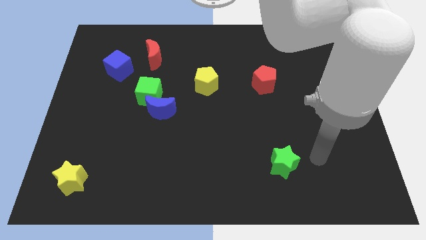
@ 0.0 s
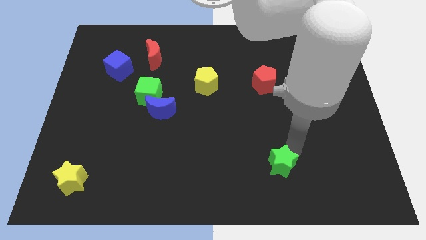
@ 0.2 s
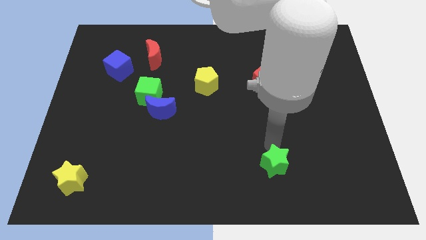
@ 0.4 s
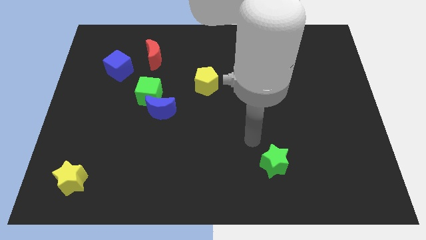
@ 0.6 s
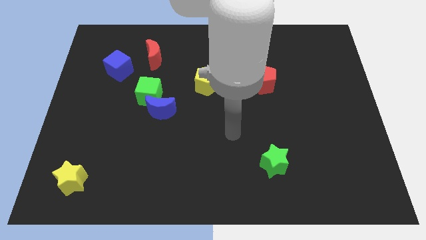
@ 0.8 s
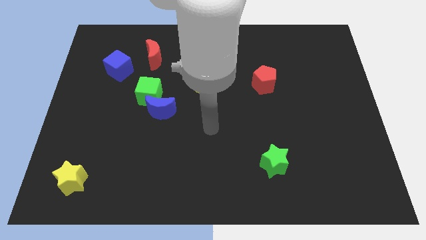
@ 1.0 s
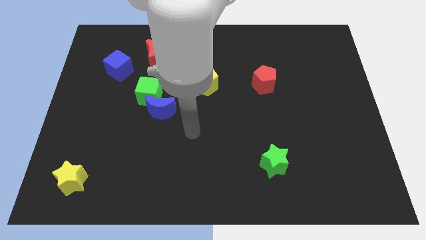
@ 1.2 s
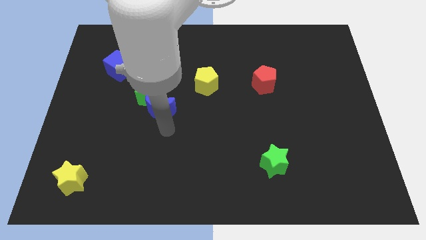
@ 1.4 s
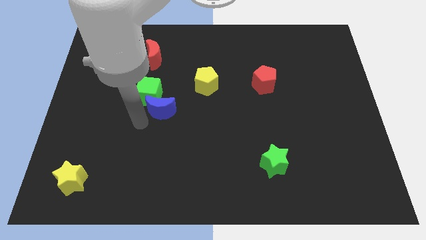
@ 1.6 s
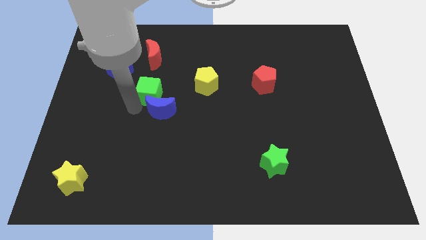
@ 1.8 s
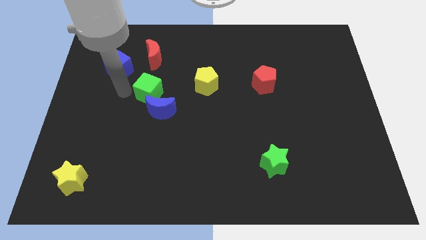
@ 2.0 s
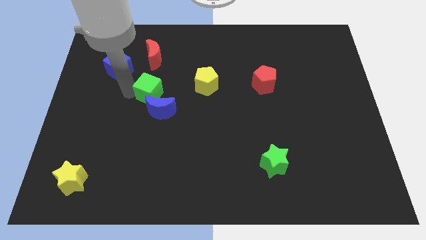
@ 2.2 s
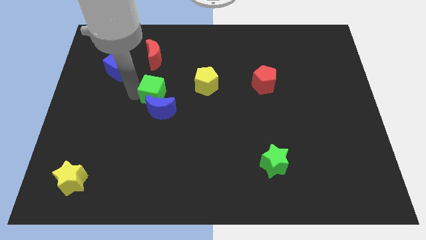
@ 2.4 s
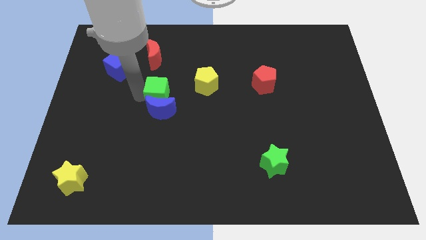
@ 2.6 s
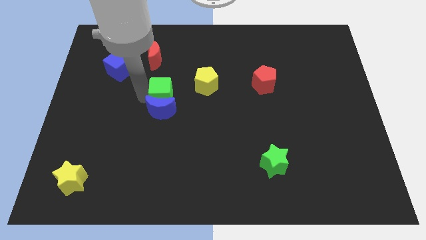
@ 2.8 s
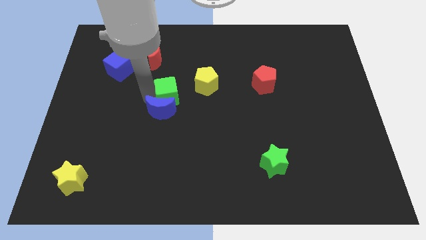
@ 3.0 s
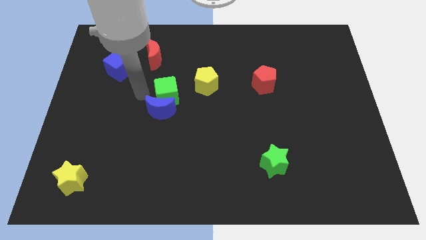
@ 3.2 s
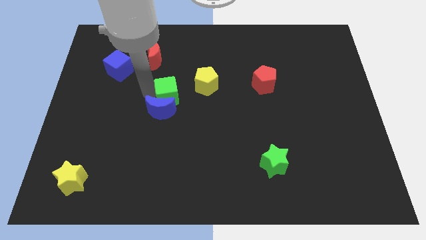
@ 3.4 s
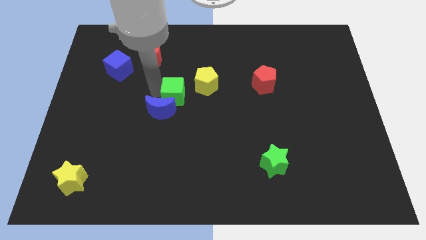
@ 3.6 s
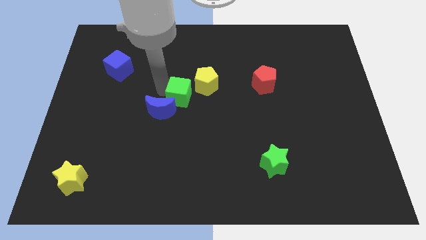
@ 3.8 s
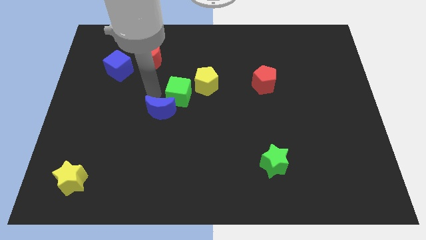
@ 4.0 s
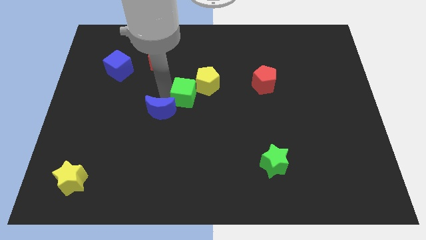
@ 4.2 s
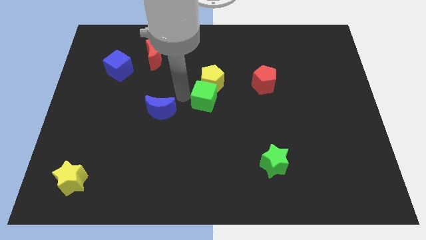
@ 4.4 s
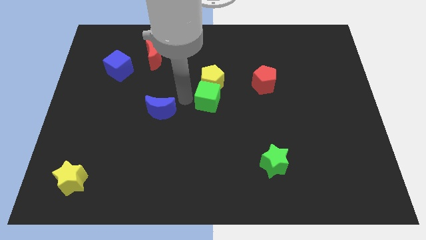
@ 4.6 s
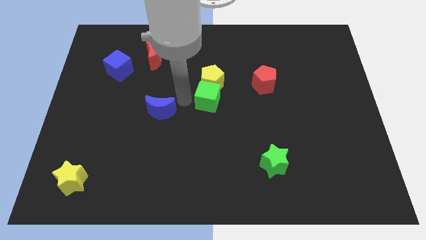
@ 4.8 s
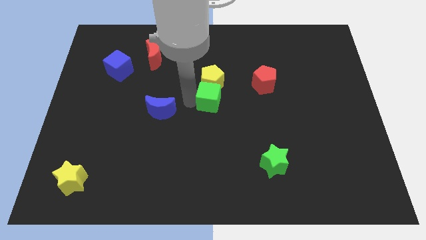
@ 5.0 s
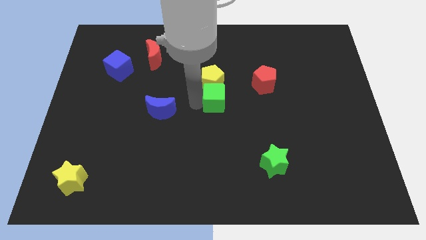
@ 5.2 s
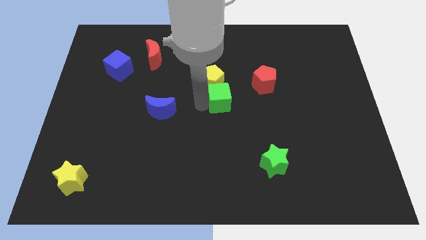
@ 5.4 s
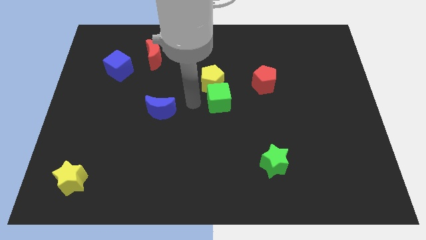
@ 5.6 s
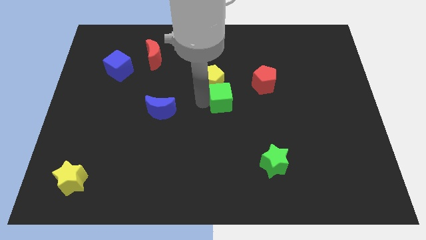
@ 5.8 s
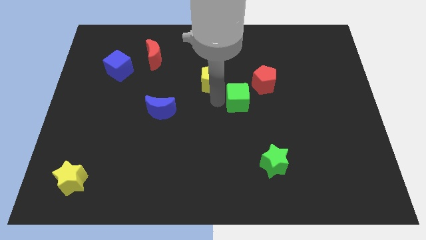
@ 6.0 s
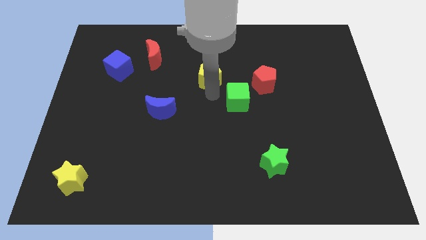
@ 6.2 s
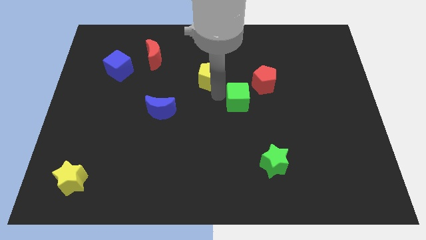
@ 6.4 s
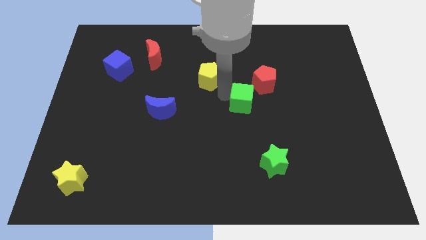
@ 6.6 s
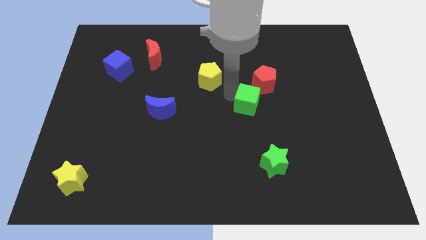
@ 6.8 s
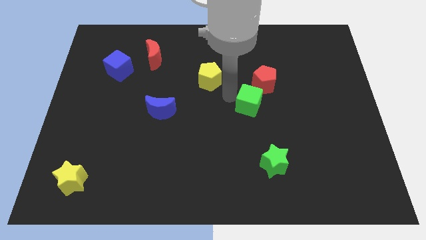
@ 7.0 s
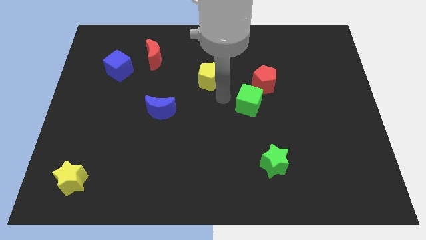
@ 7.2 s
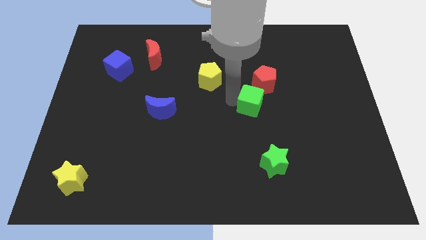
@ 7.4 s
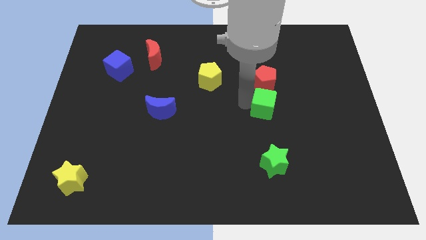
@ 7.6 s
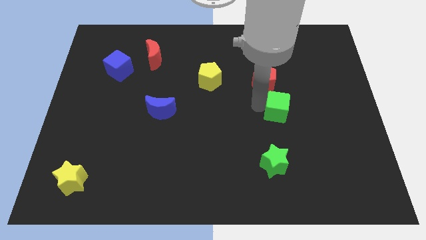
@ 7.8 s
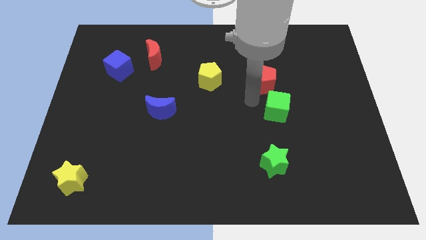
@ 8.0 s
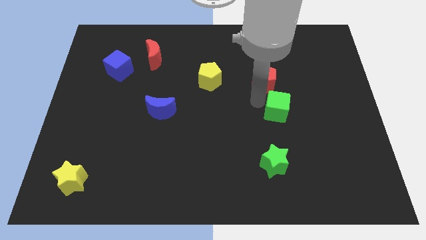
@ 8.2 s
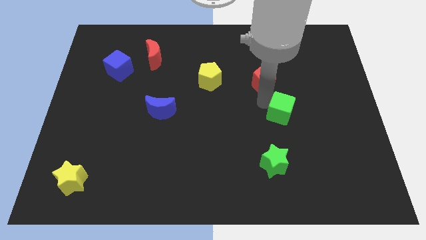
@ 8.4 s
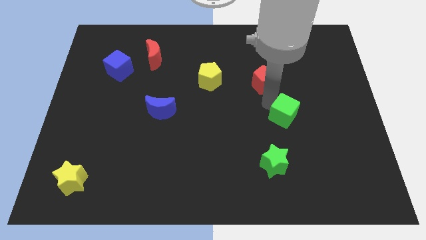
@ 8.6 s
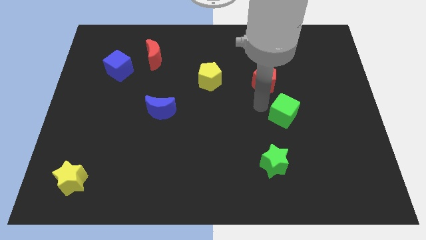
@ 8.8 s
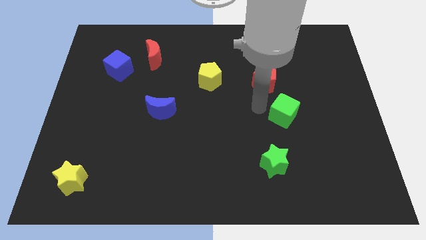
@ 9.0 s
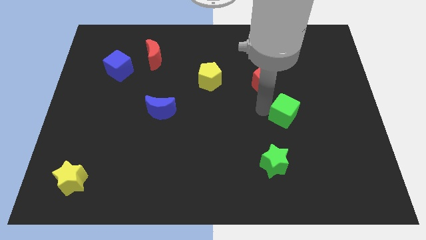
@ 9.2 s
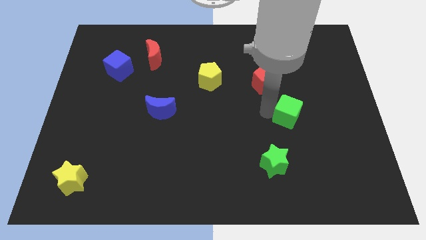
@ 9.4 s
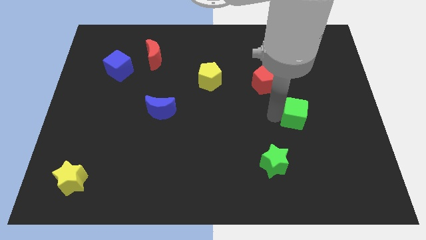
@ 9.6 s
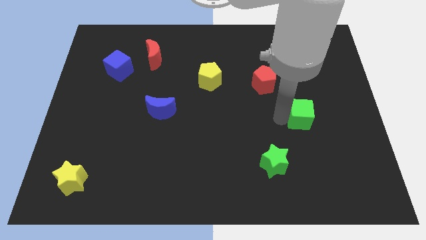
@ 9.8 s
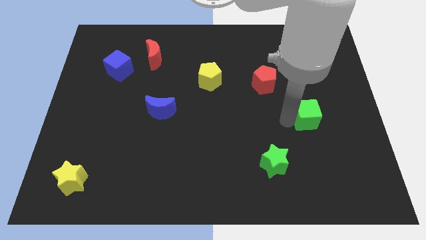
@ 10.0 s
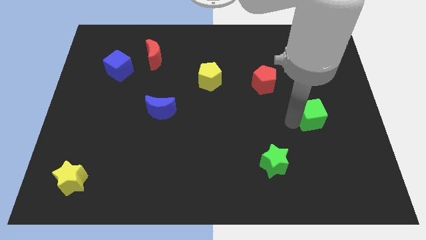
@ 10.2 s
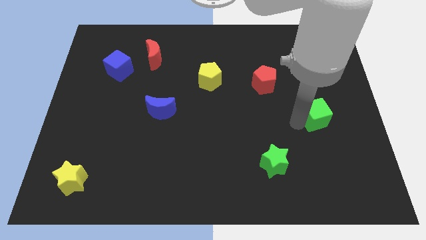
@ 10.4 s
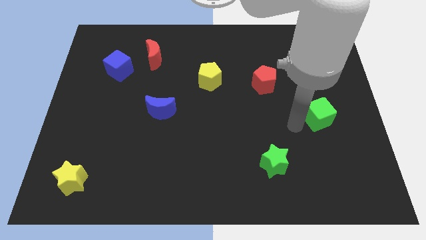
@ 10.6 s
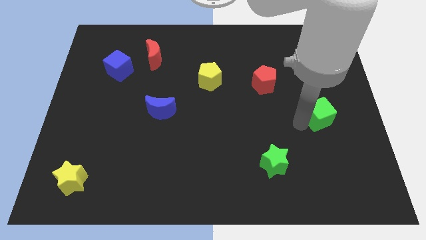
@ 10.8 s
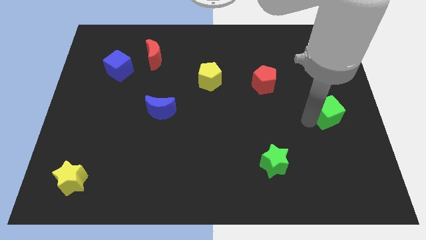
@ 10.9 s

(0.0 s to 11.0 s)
push the green cube to the center right
